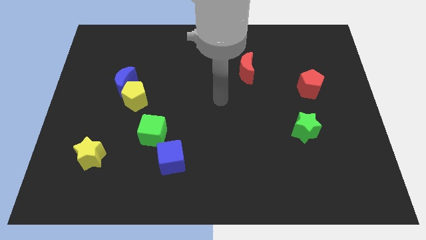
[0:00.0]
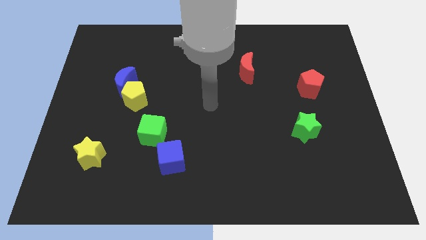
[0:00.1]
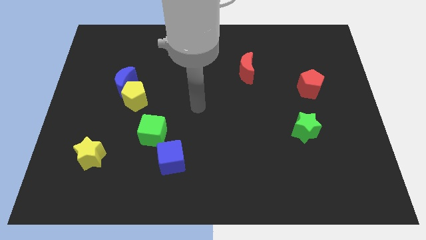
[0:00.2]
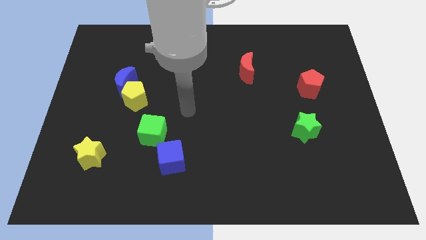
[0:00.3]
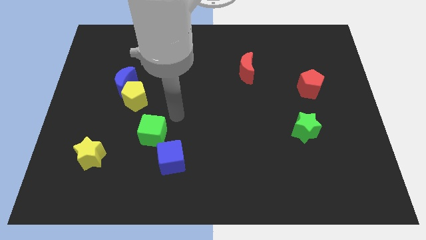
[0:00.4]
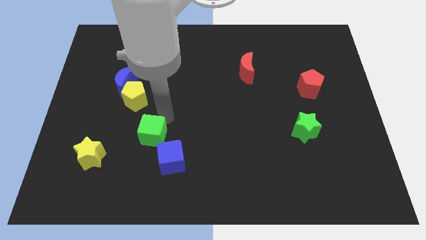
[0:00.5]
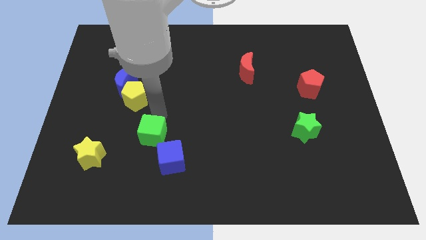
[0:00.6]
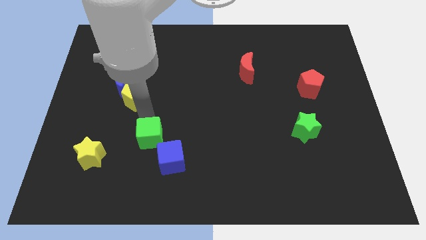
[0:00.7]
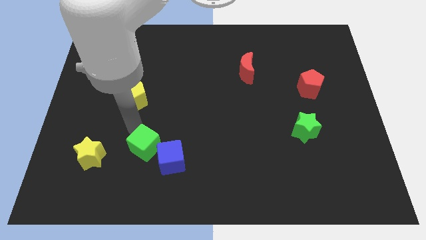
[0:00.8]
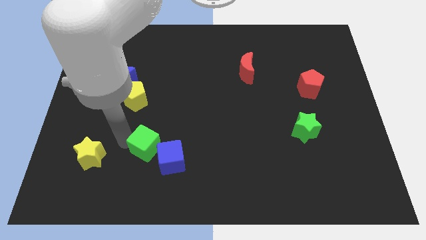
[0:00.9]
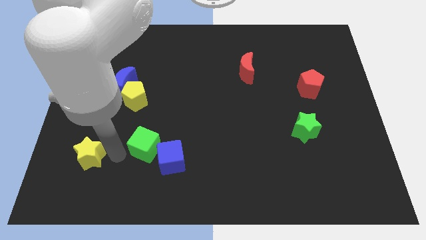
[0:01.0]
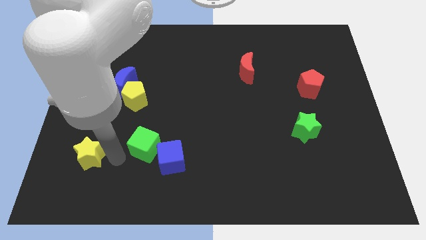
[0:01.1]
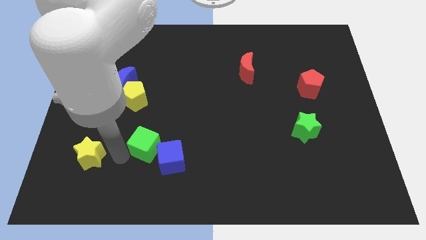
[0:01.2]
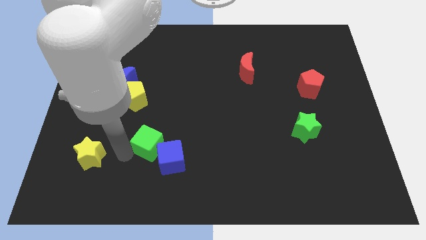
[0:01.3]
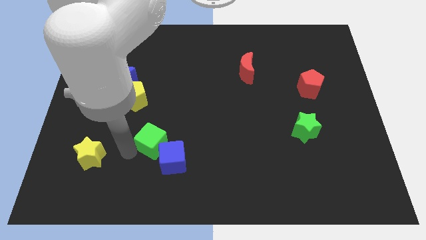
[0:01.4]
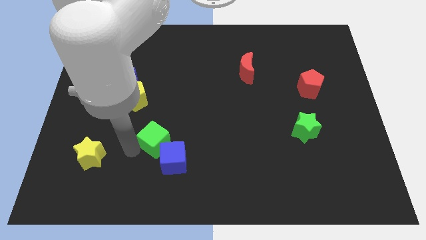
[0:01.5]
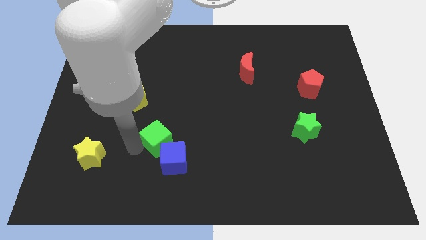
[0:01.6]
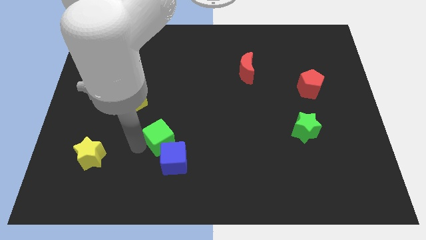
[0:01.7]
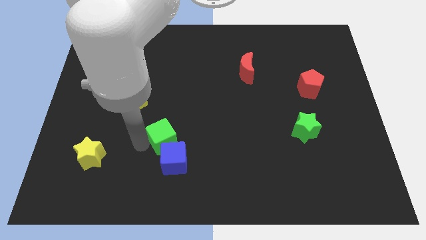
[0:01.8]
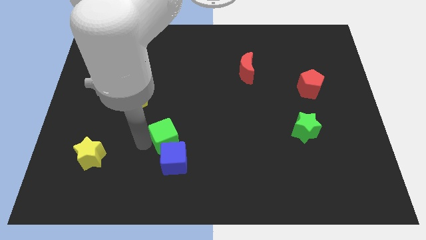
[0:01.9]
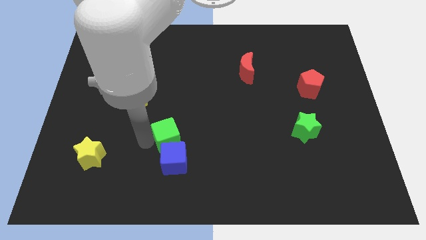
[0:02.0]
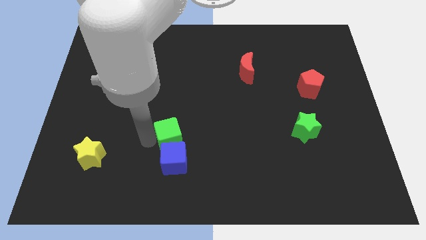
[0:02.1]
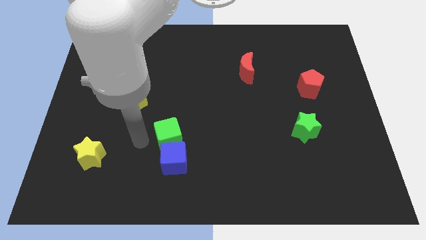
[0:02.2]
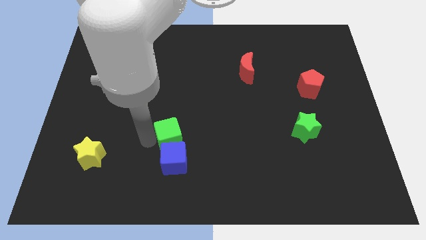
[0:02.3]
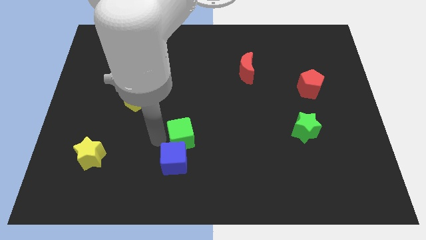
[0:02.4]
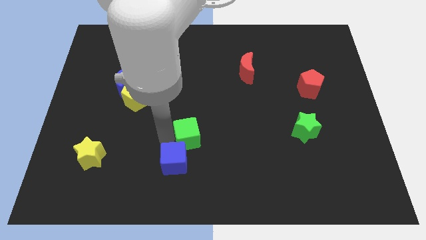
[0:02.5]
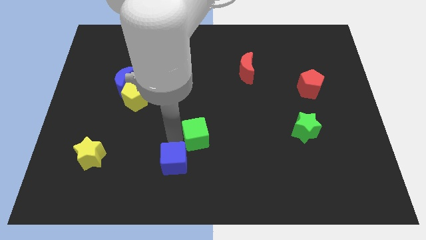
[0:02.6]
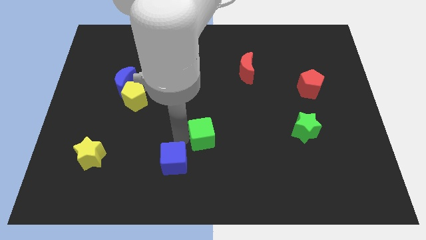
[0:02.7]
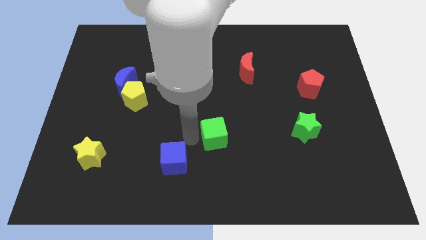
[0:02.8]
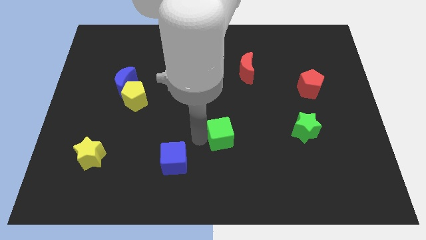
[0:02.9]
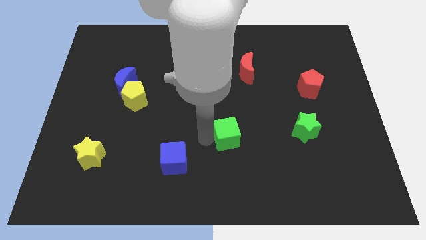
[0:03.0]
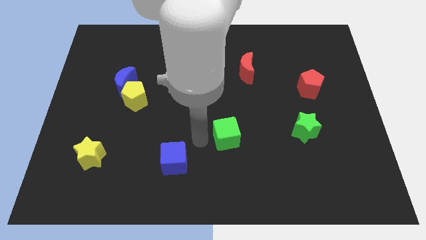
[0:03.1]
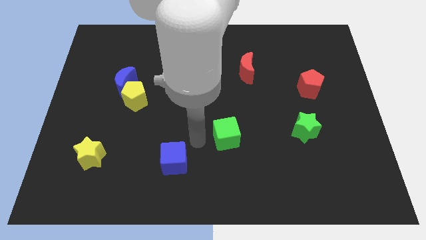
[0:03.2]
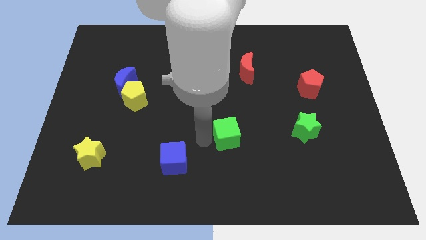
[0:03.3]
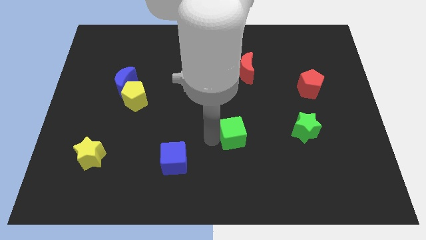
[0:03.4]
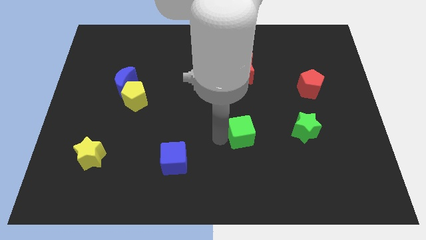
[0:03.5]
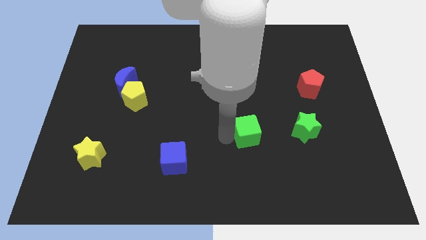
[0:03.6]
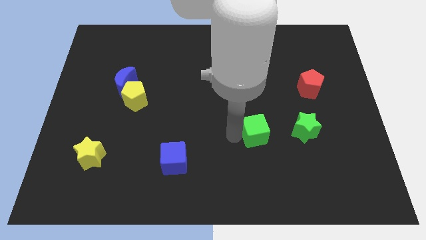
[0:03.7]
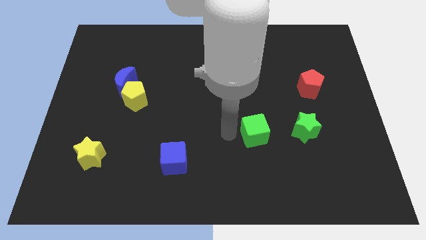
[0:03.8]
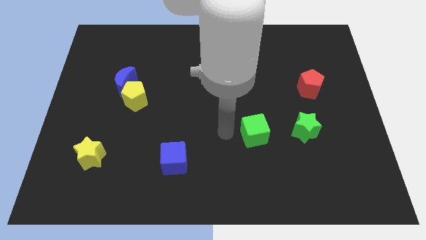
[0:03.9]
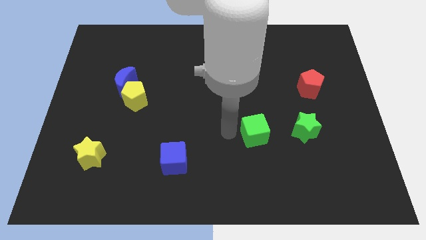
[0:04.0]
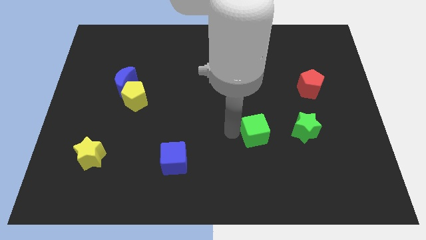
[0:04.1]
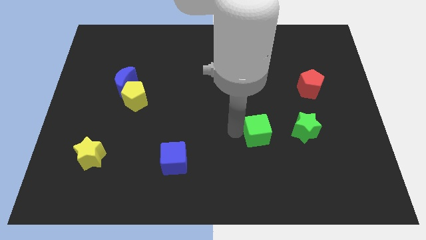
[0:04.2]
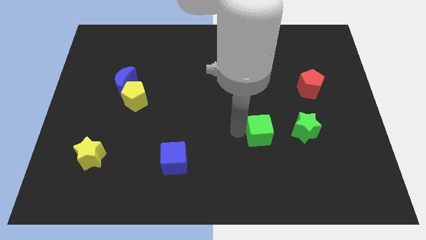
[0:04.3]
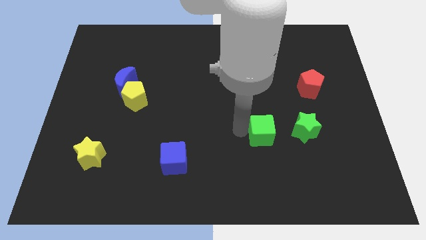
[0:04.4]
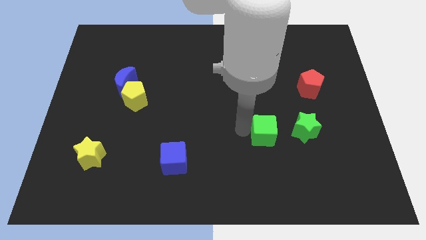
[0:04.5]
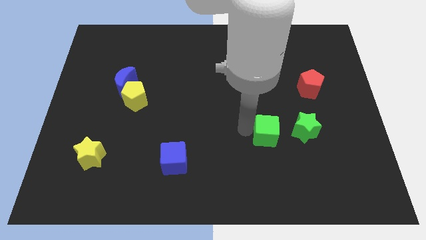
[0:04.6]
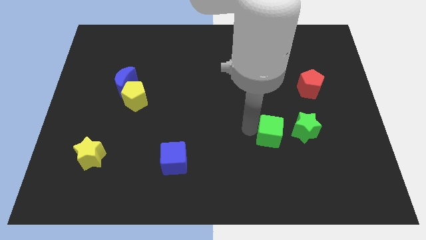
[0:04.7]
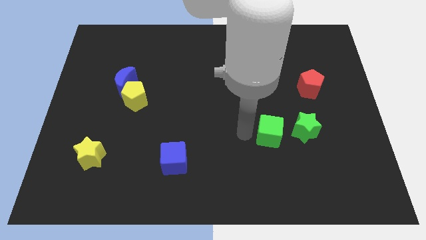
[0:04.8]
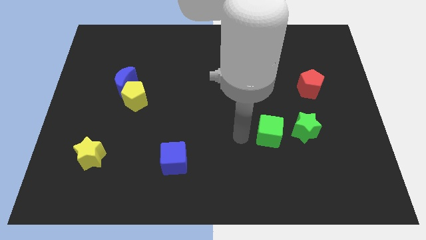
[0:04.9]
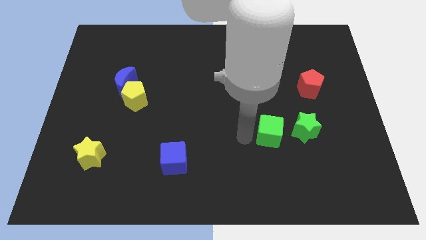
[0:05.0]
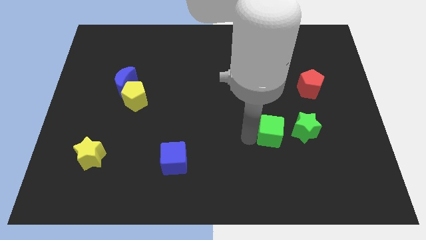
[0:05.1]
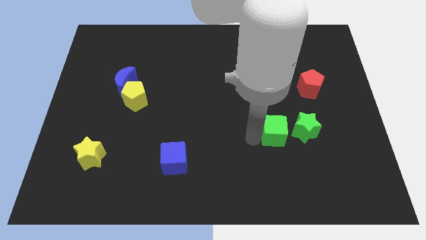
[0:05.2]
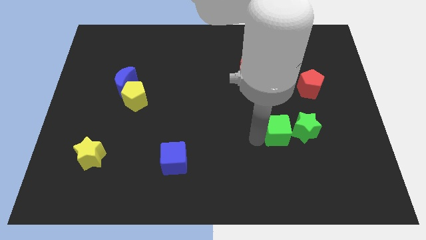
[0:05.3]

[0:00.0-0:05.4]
move the green cube to the green star

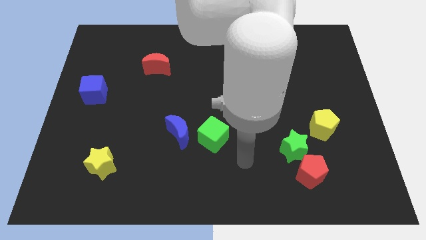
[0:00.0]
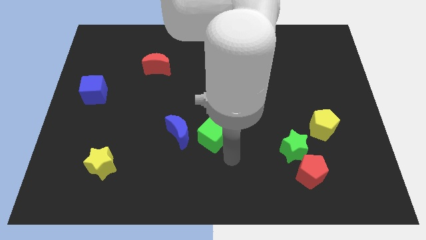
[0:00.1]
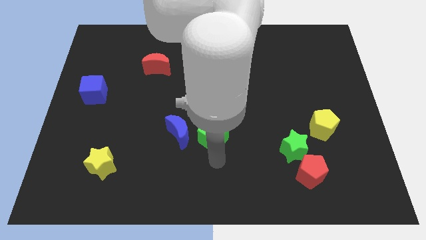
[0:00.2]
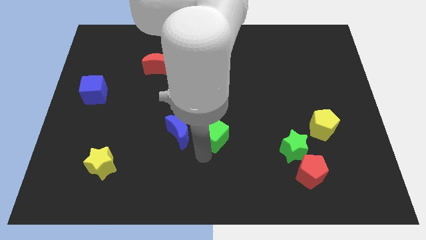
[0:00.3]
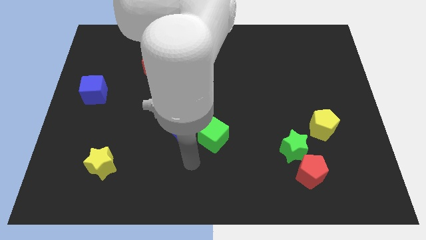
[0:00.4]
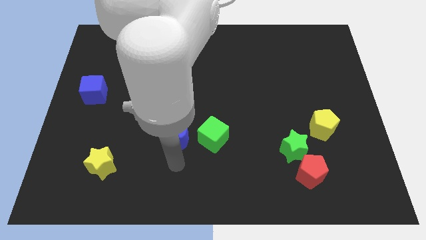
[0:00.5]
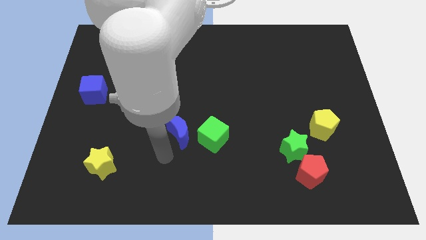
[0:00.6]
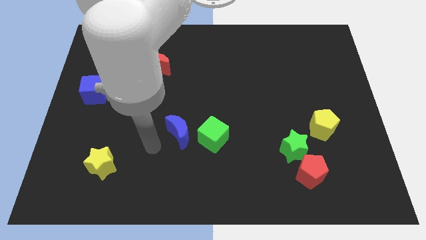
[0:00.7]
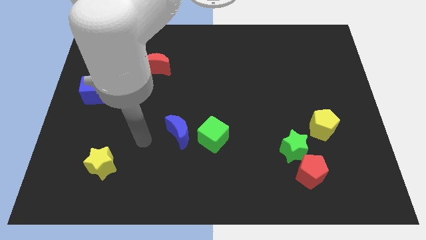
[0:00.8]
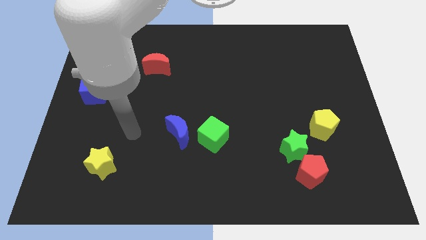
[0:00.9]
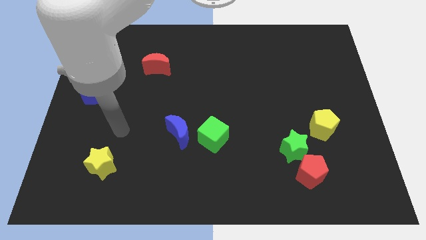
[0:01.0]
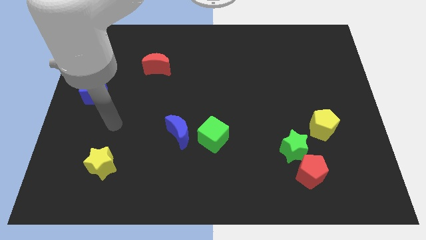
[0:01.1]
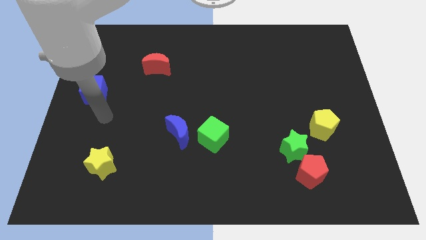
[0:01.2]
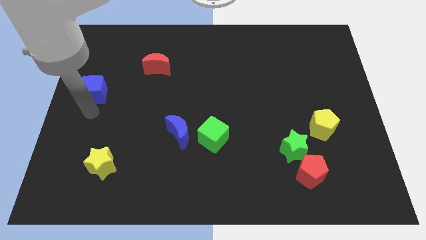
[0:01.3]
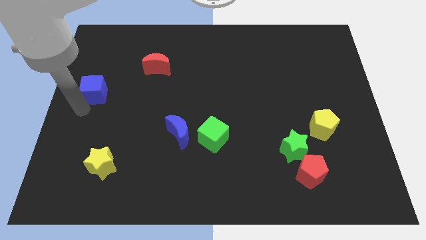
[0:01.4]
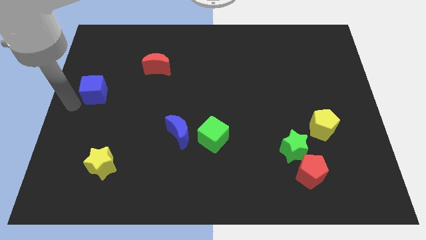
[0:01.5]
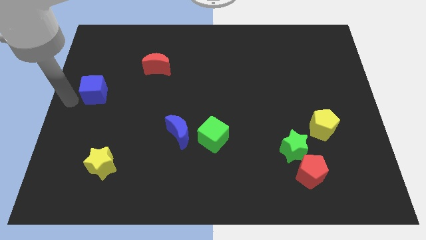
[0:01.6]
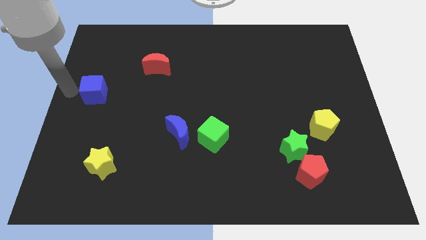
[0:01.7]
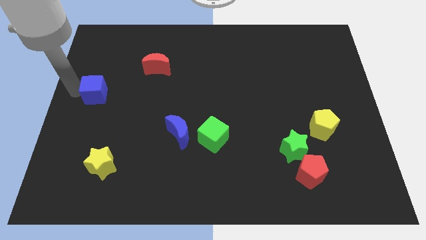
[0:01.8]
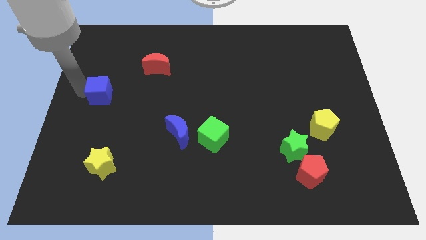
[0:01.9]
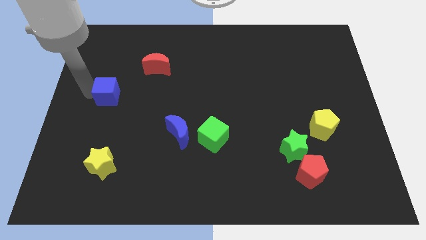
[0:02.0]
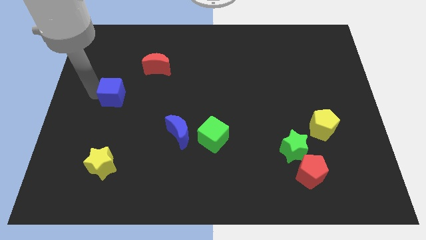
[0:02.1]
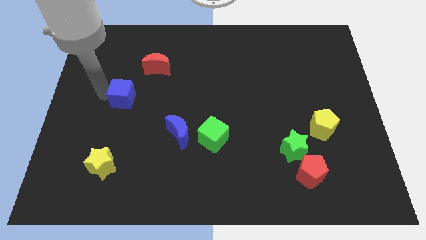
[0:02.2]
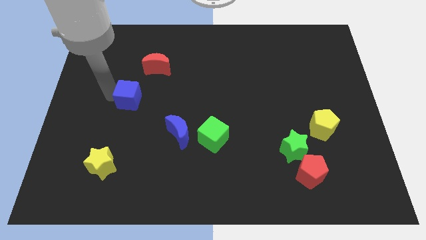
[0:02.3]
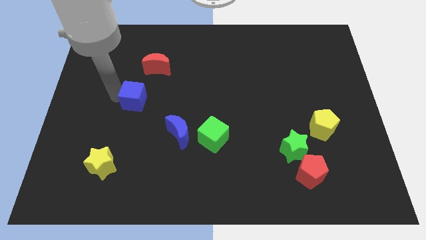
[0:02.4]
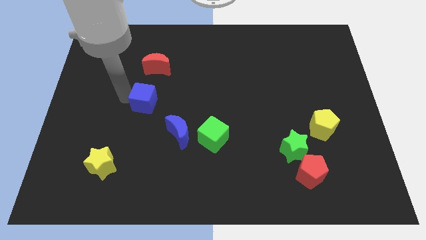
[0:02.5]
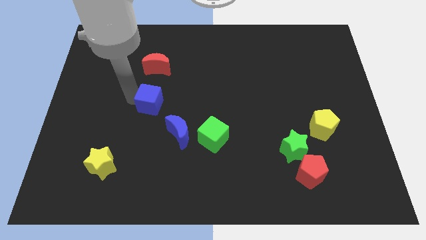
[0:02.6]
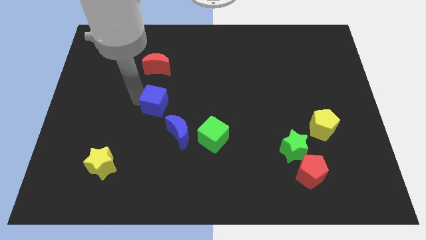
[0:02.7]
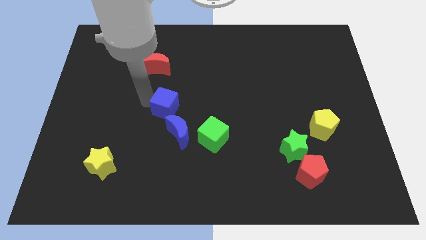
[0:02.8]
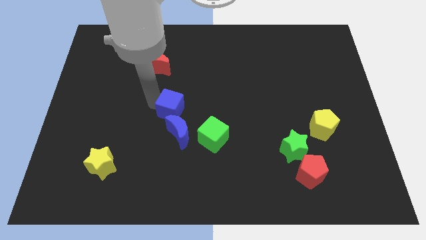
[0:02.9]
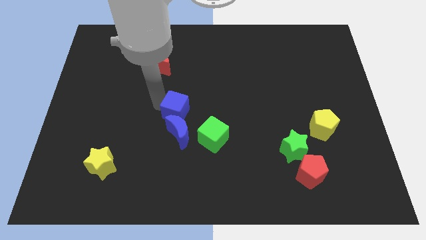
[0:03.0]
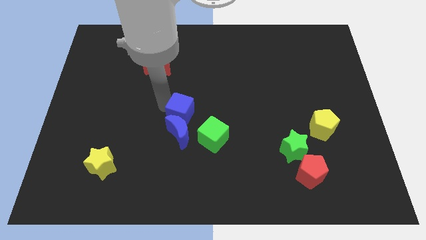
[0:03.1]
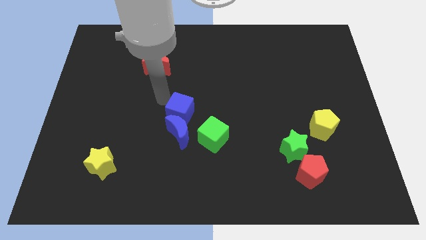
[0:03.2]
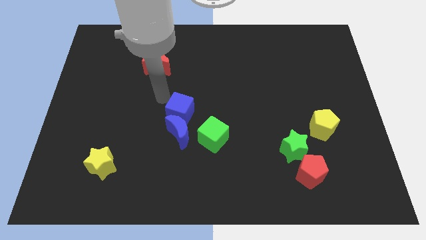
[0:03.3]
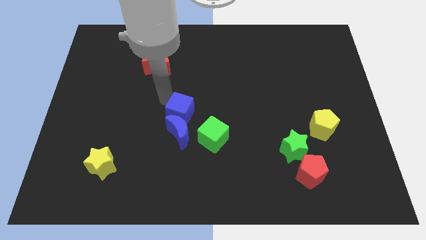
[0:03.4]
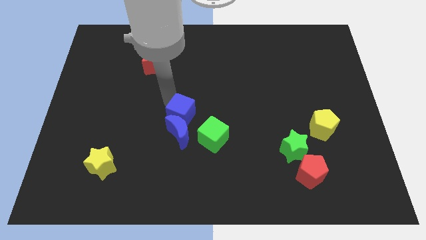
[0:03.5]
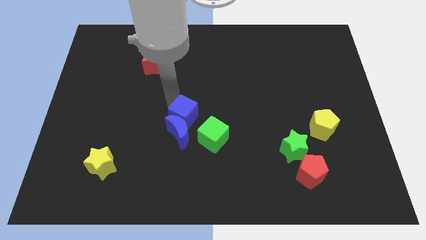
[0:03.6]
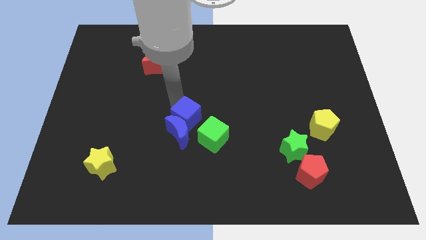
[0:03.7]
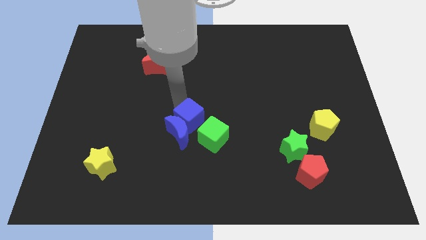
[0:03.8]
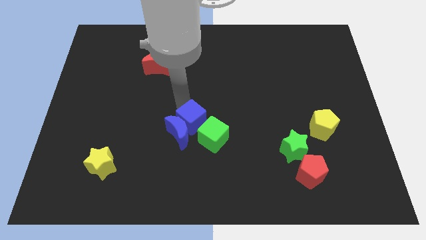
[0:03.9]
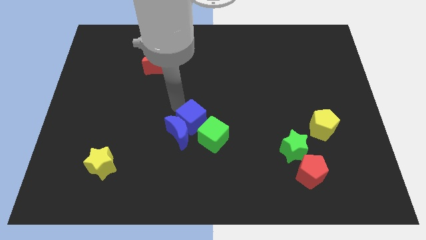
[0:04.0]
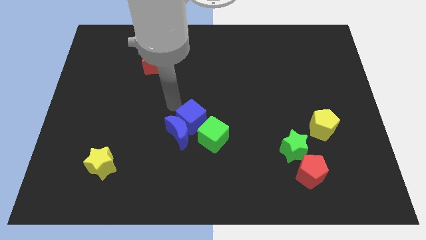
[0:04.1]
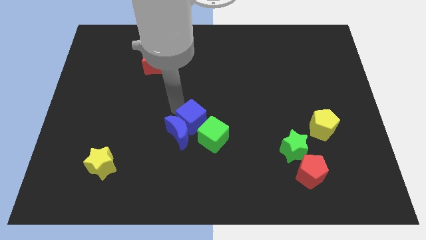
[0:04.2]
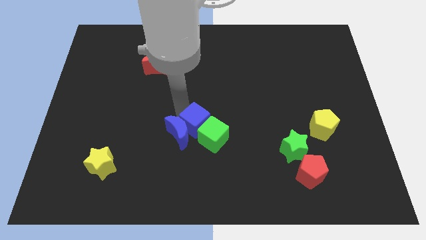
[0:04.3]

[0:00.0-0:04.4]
slide the blue cube close to the green cube
